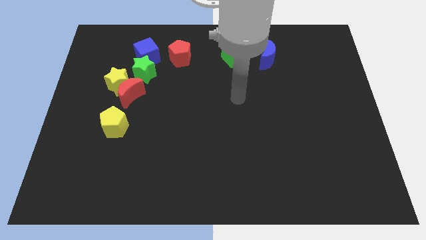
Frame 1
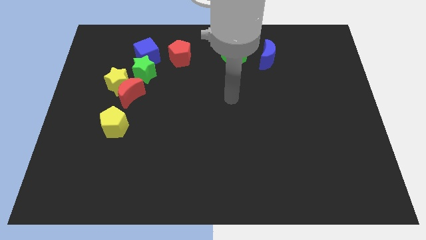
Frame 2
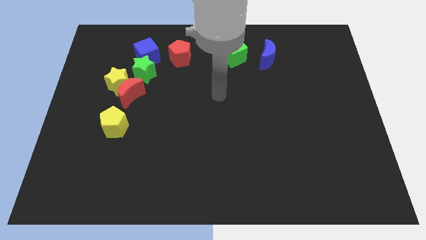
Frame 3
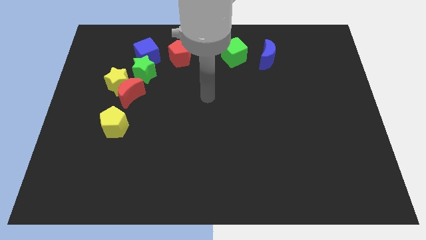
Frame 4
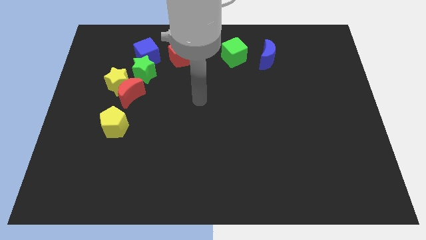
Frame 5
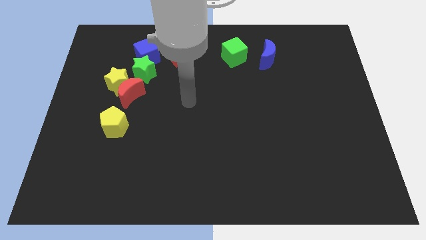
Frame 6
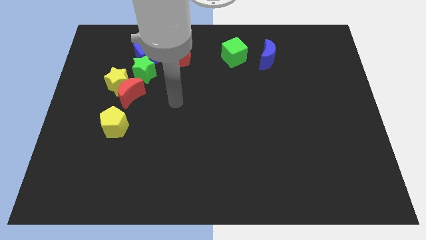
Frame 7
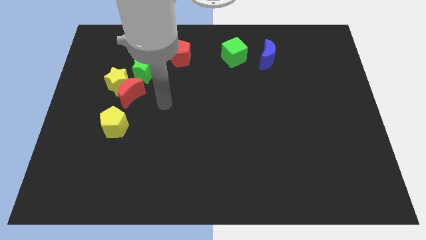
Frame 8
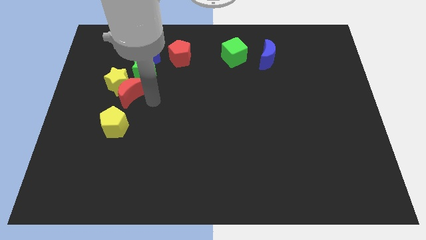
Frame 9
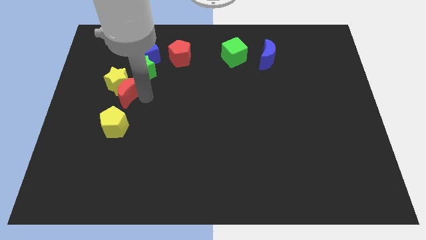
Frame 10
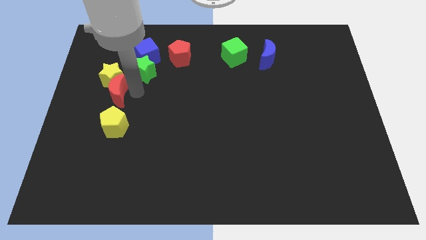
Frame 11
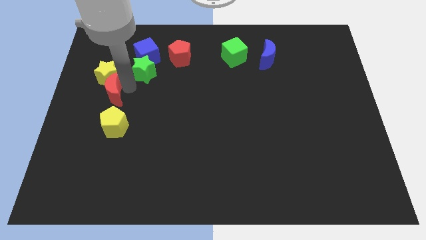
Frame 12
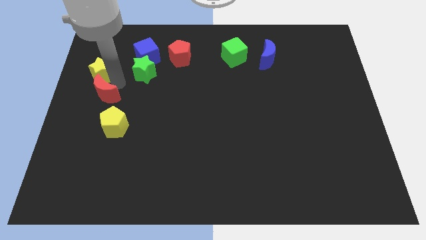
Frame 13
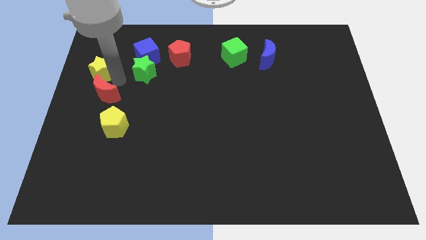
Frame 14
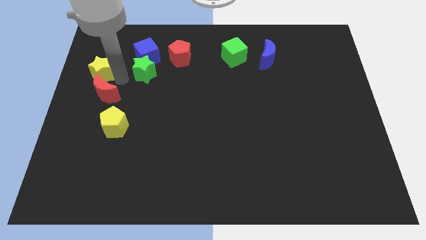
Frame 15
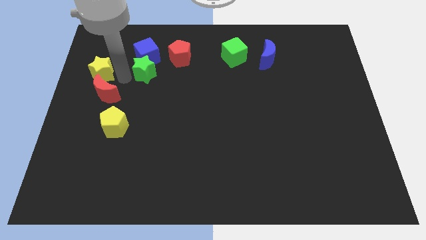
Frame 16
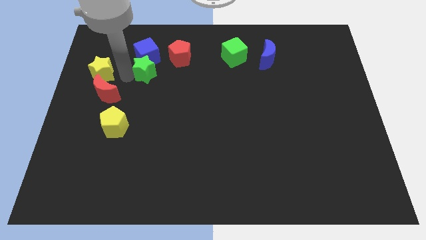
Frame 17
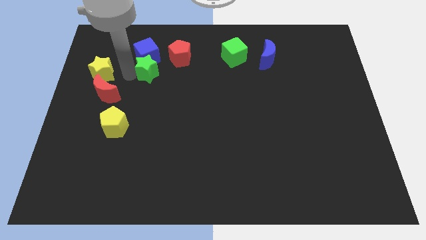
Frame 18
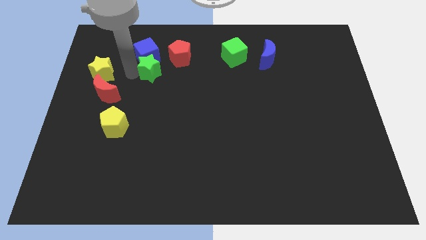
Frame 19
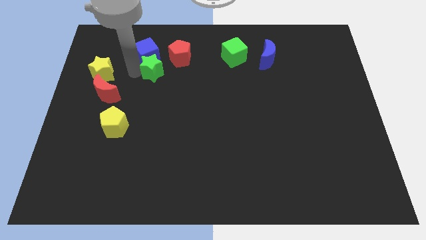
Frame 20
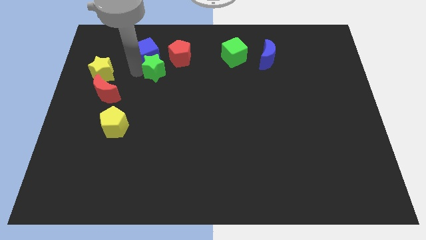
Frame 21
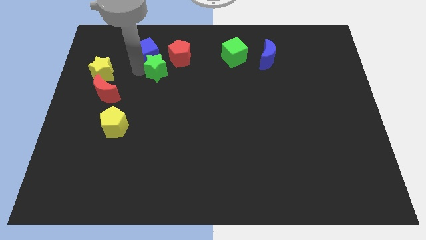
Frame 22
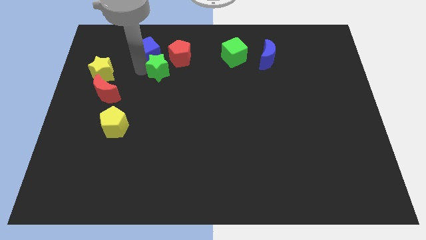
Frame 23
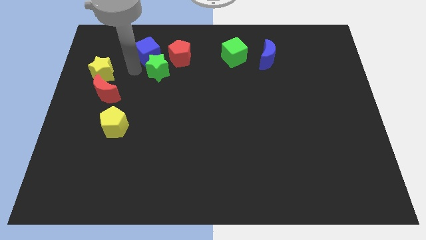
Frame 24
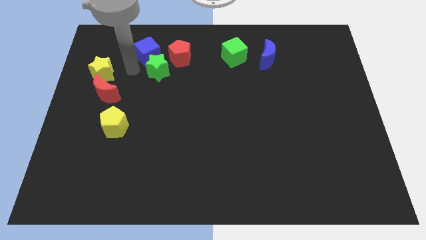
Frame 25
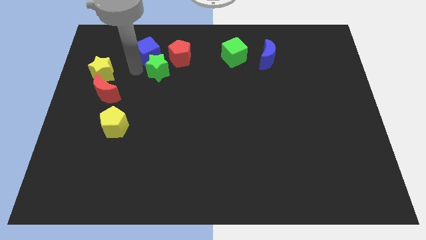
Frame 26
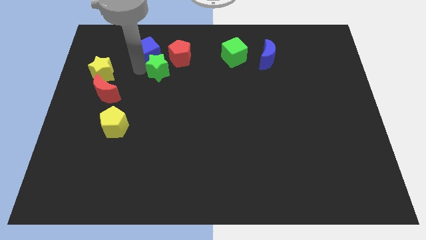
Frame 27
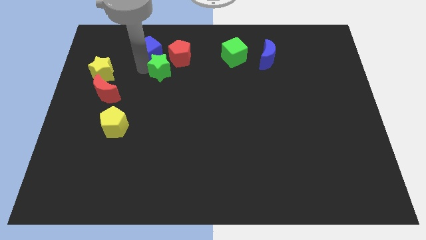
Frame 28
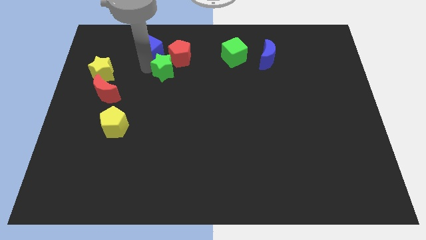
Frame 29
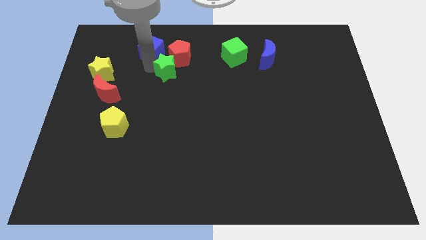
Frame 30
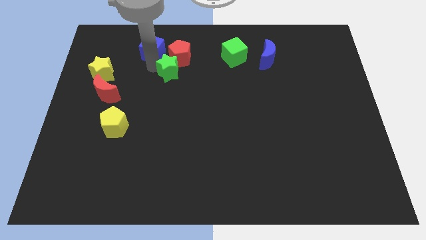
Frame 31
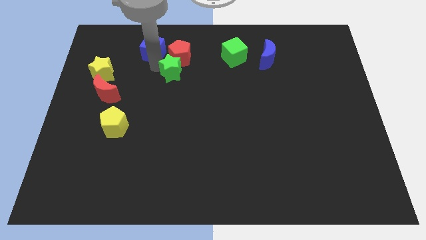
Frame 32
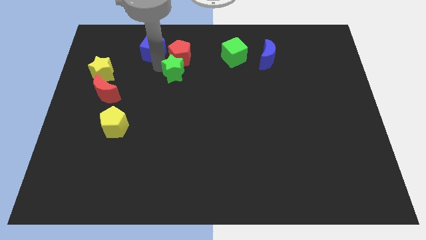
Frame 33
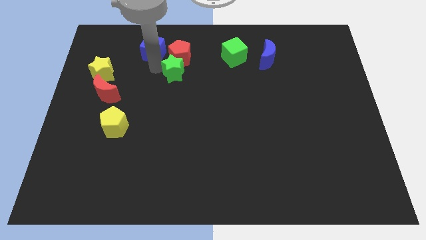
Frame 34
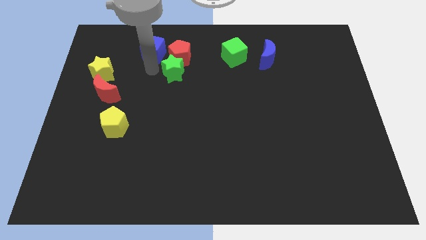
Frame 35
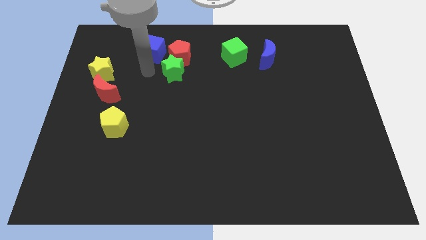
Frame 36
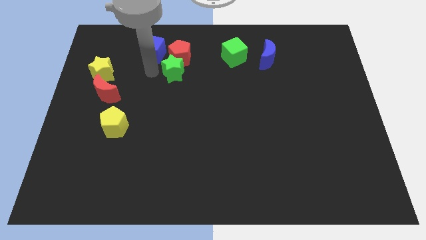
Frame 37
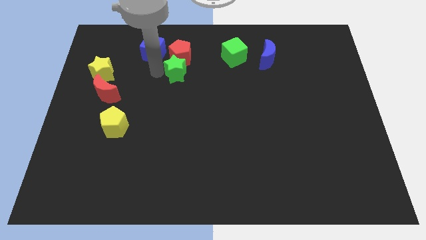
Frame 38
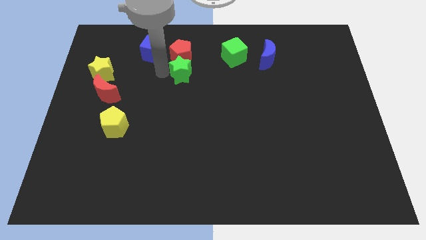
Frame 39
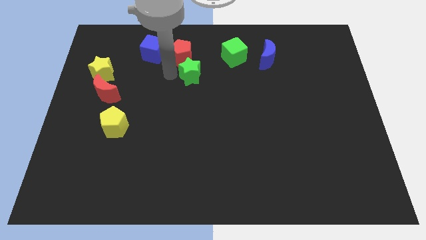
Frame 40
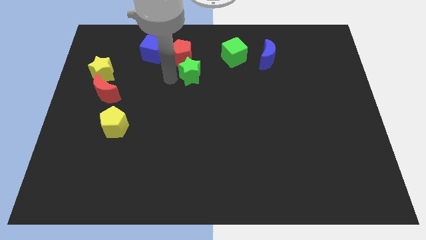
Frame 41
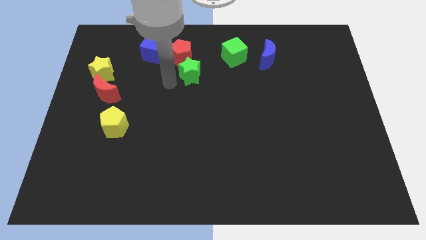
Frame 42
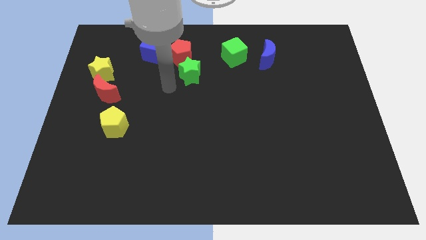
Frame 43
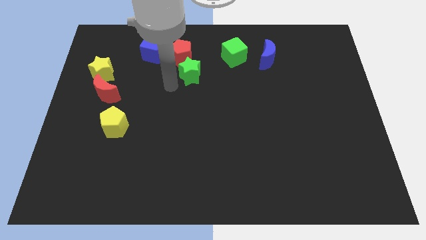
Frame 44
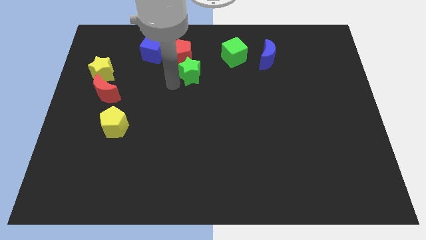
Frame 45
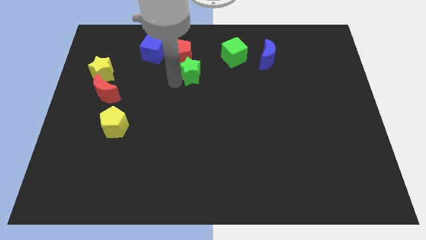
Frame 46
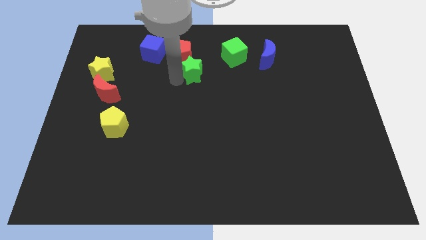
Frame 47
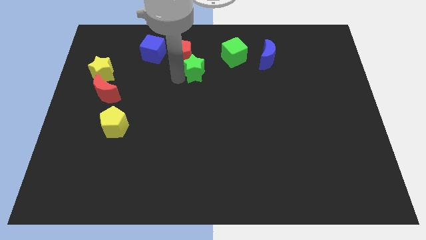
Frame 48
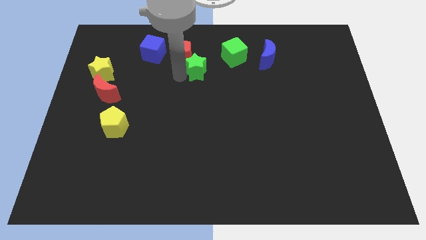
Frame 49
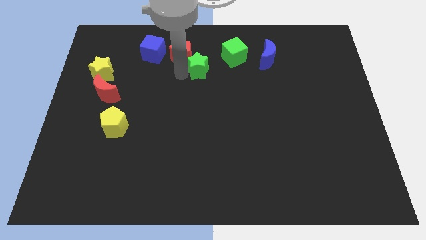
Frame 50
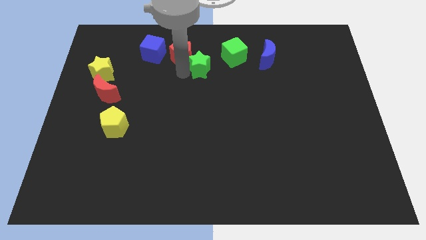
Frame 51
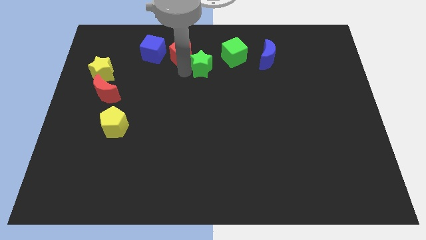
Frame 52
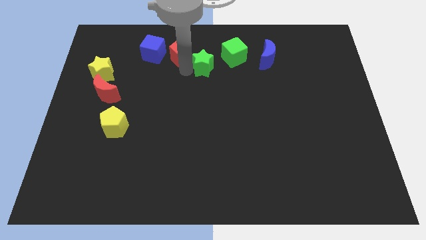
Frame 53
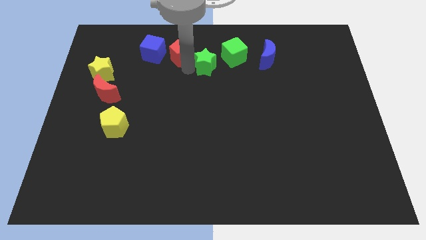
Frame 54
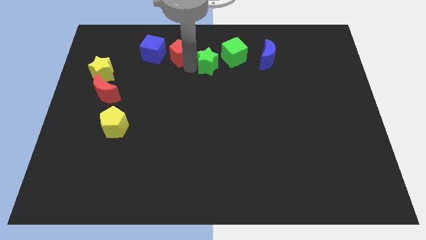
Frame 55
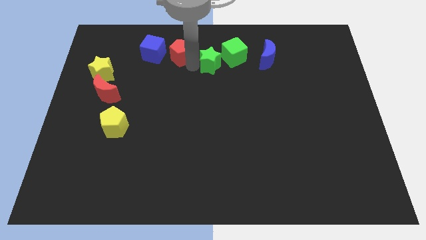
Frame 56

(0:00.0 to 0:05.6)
put the green star left of the blue moon

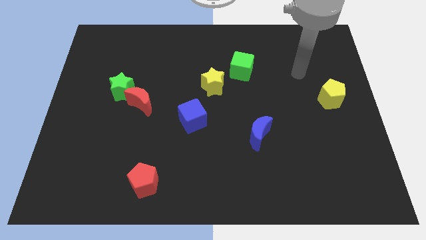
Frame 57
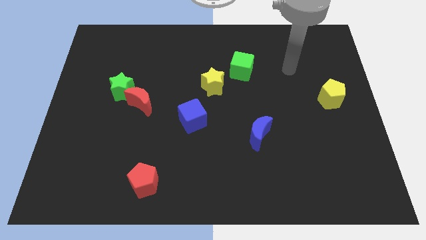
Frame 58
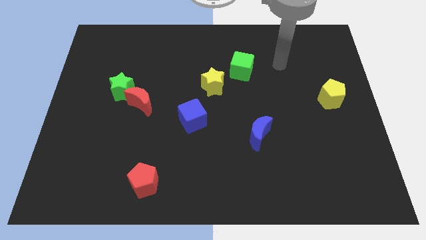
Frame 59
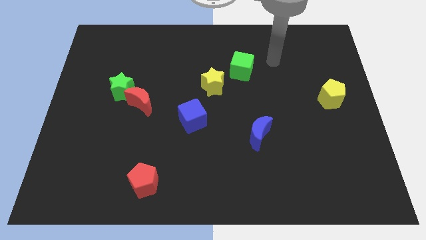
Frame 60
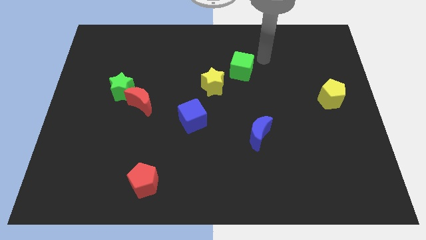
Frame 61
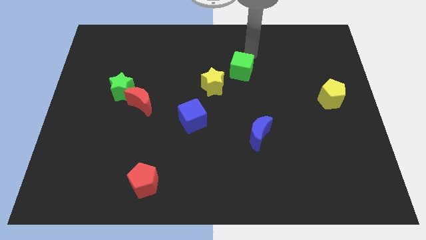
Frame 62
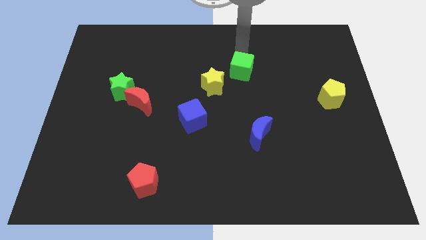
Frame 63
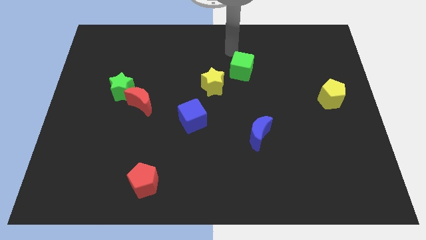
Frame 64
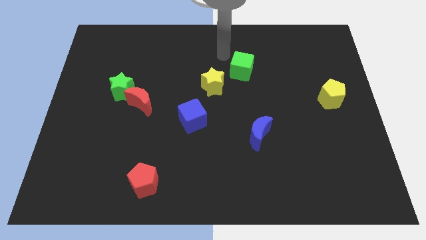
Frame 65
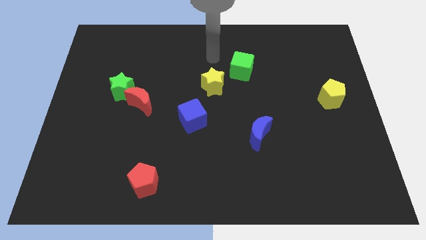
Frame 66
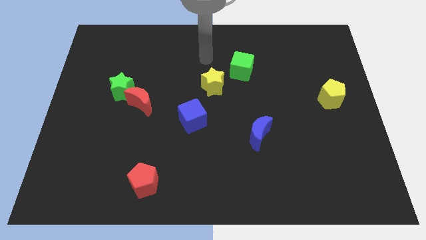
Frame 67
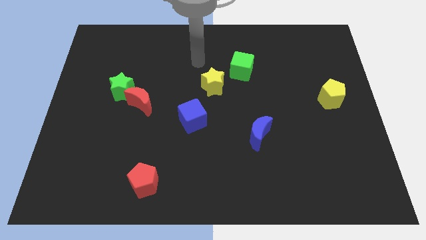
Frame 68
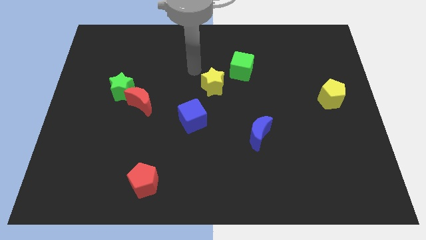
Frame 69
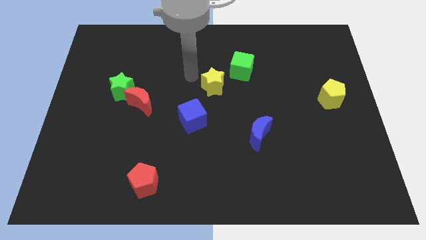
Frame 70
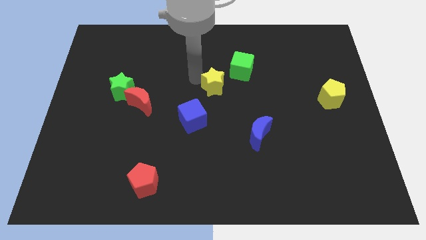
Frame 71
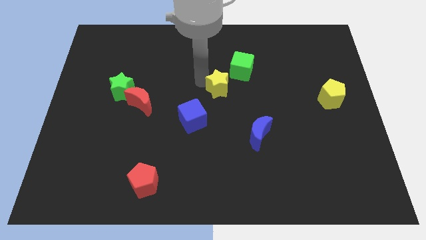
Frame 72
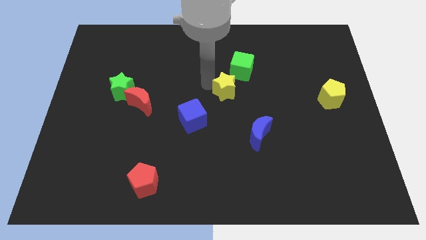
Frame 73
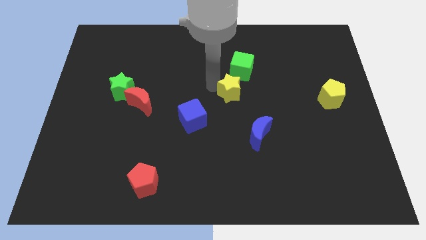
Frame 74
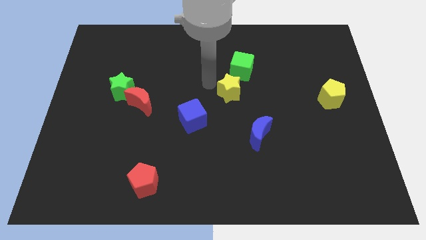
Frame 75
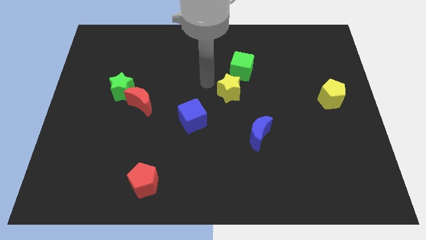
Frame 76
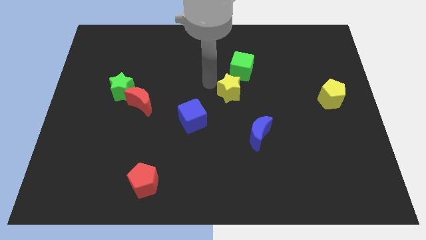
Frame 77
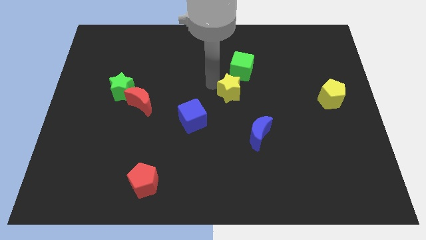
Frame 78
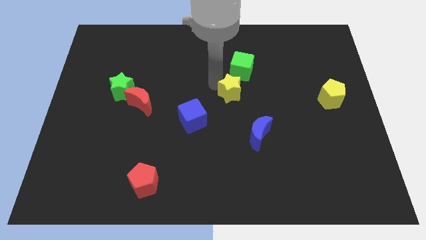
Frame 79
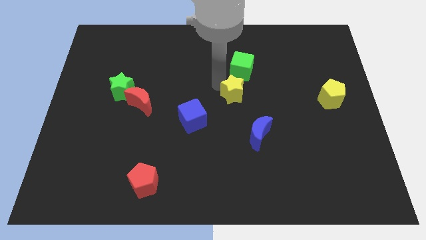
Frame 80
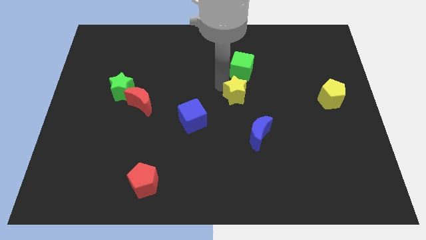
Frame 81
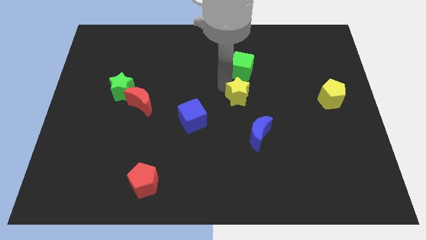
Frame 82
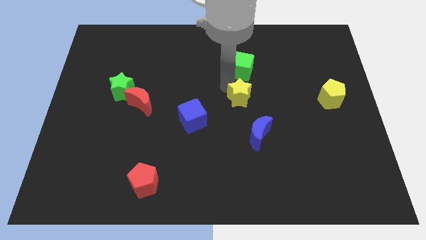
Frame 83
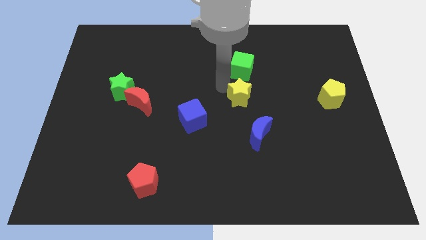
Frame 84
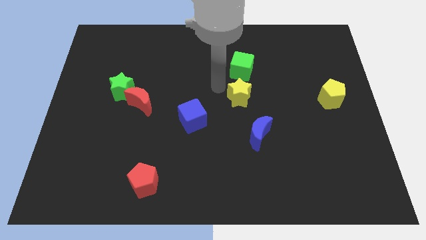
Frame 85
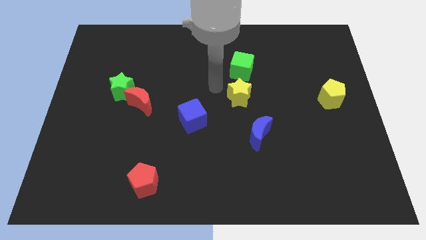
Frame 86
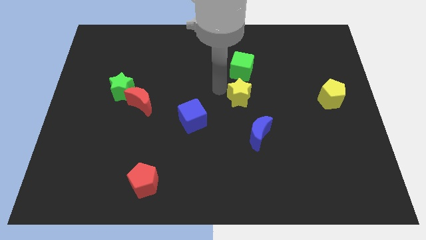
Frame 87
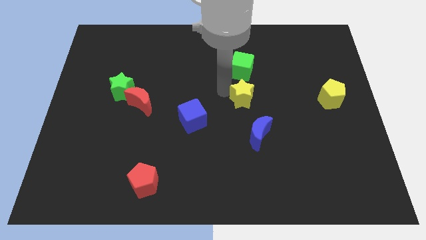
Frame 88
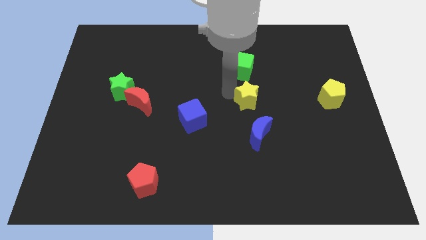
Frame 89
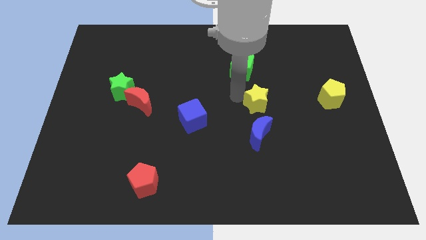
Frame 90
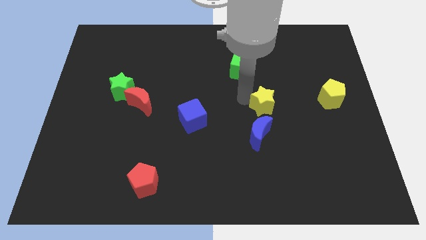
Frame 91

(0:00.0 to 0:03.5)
put the yellow star diagonally up and to the right of the blue moon
